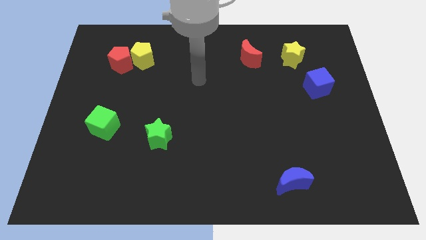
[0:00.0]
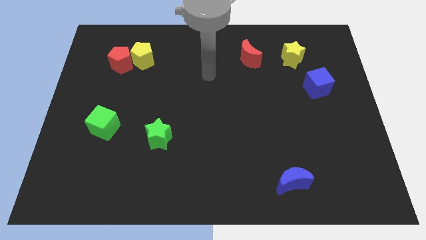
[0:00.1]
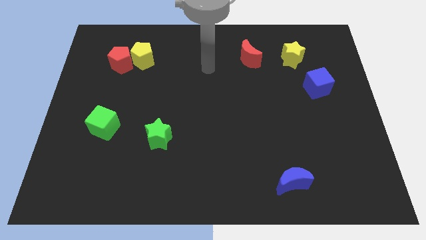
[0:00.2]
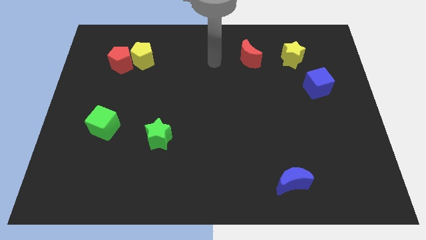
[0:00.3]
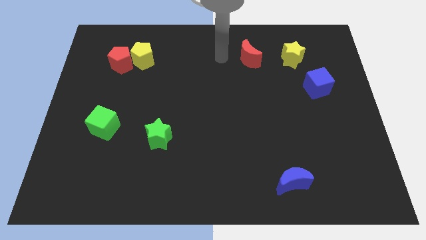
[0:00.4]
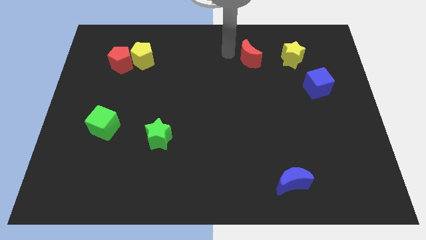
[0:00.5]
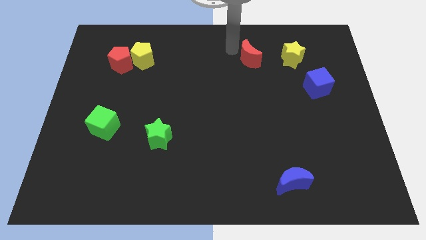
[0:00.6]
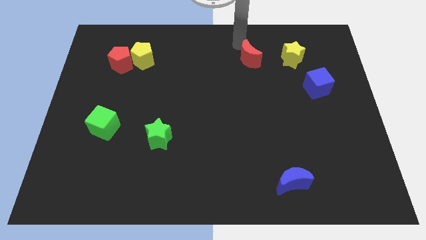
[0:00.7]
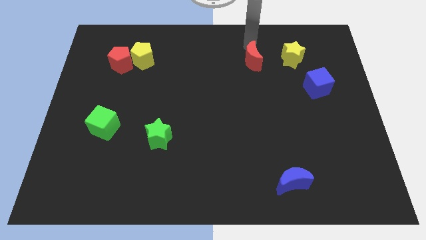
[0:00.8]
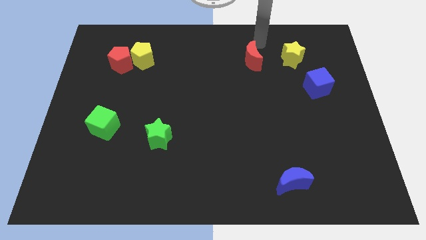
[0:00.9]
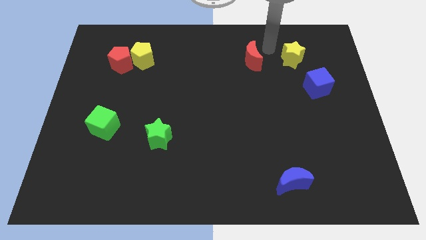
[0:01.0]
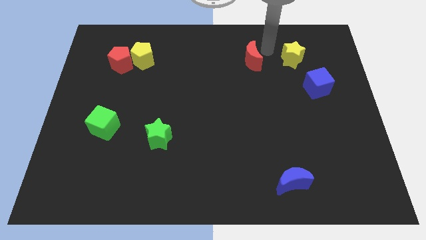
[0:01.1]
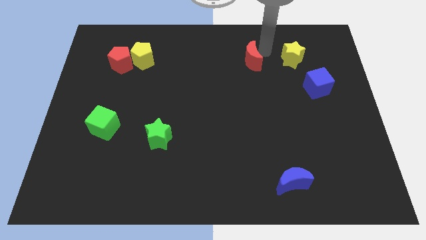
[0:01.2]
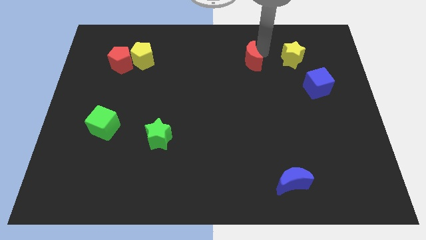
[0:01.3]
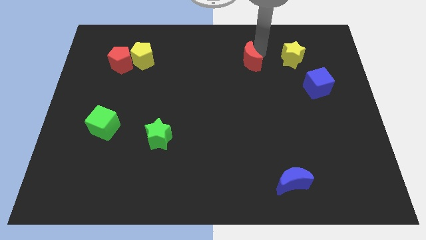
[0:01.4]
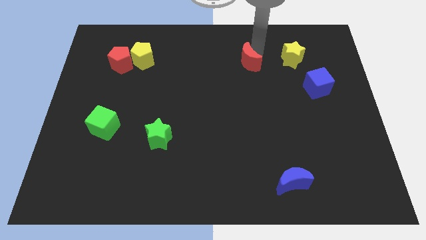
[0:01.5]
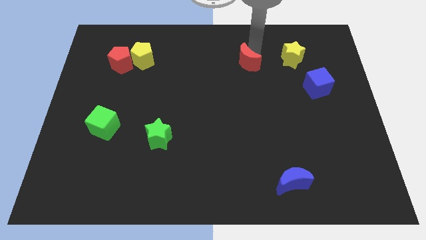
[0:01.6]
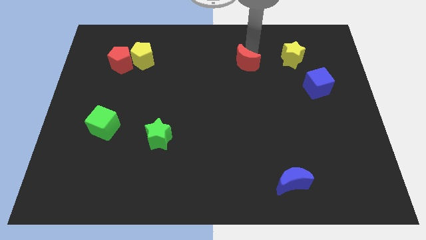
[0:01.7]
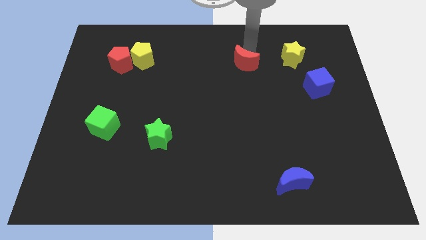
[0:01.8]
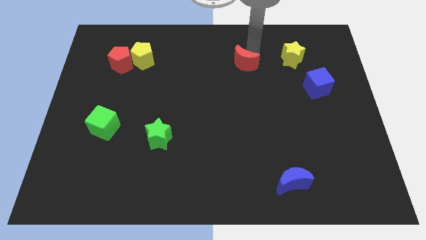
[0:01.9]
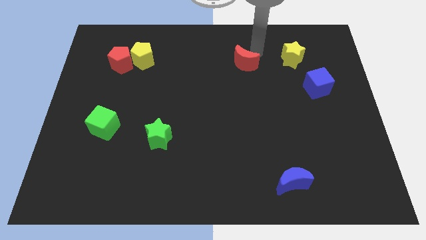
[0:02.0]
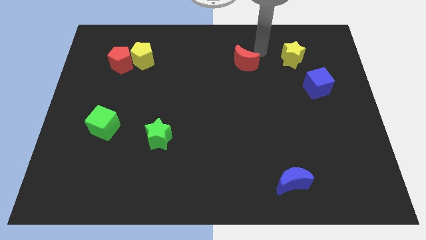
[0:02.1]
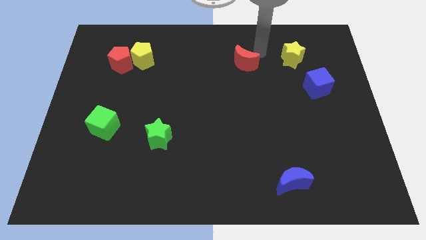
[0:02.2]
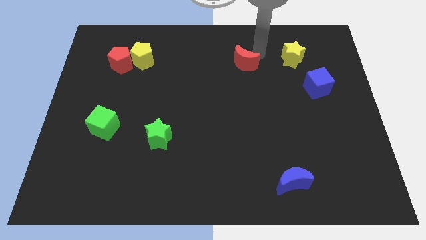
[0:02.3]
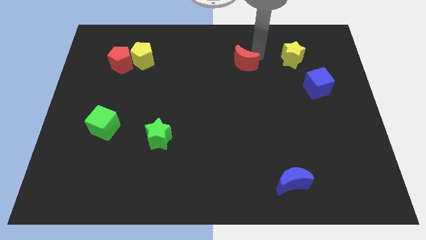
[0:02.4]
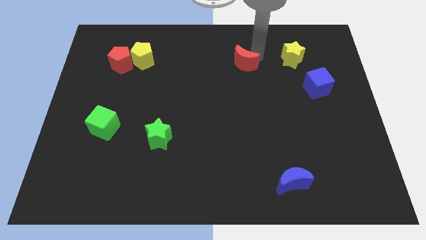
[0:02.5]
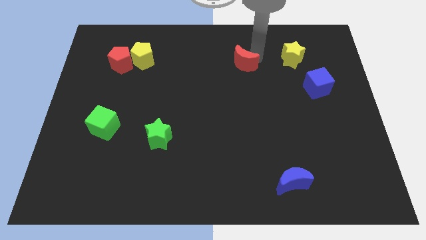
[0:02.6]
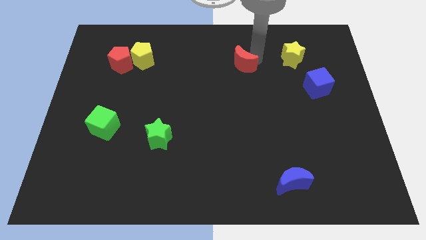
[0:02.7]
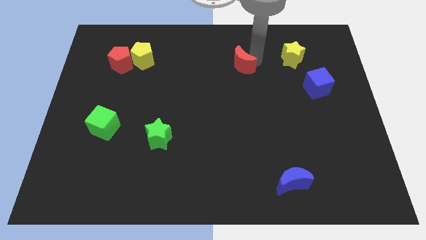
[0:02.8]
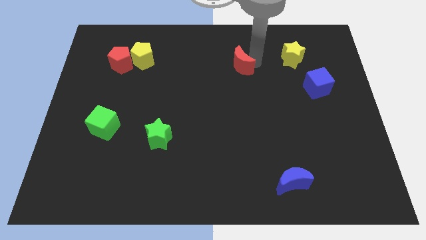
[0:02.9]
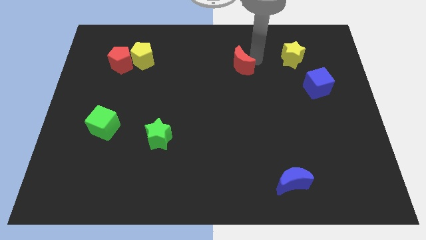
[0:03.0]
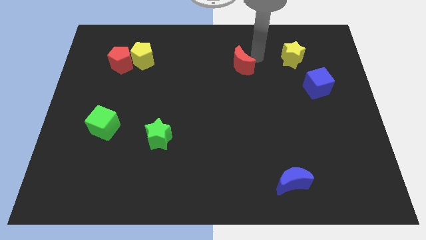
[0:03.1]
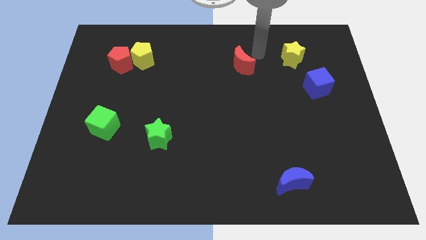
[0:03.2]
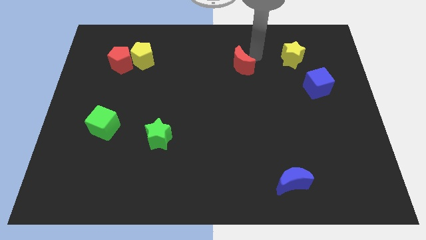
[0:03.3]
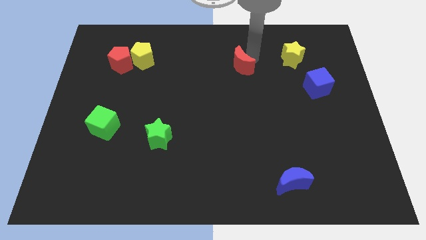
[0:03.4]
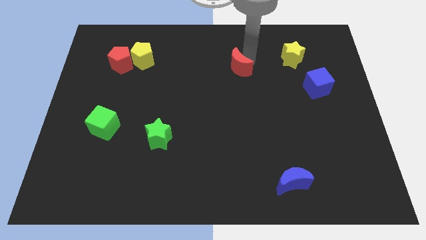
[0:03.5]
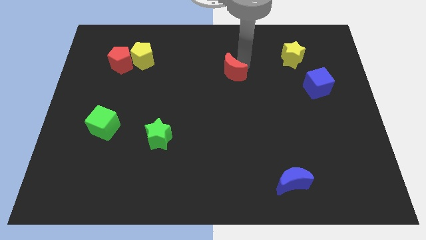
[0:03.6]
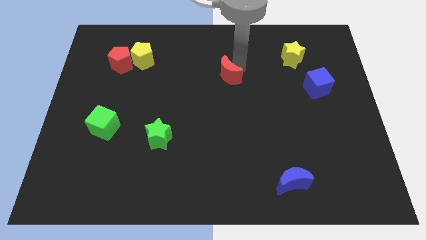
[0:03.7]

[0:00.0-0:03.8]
slightly move the red moon down and left diagonally

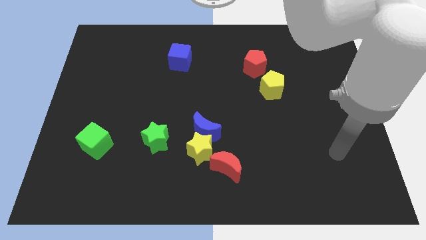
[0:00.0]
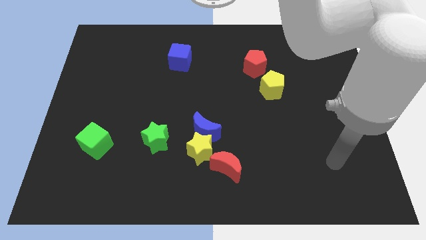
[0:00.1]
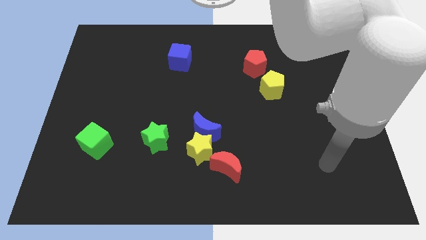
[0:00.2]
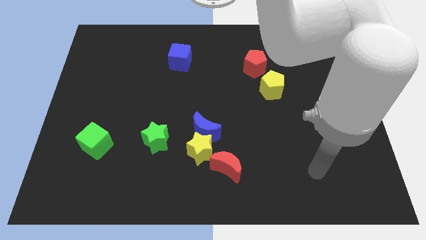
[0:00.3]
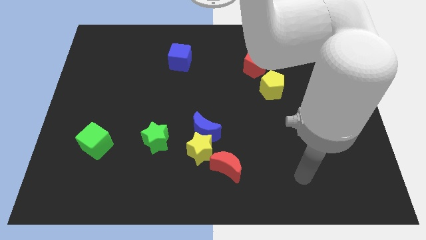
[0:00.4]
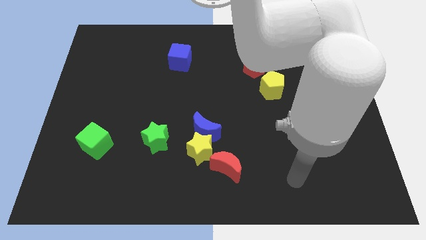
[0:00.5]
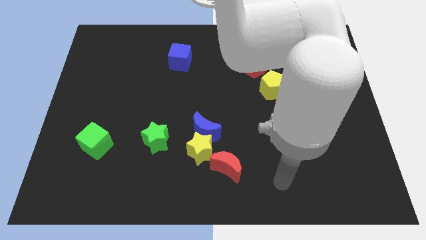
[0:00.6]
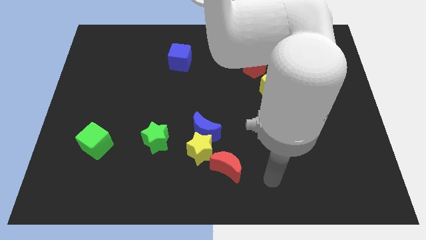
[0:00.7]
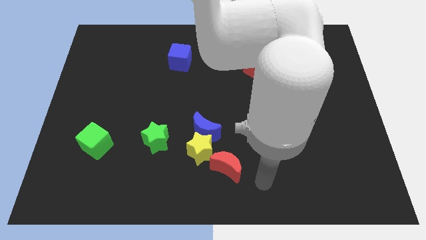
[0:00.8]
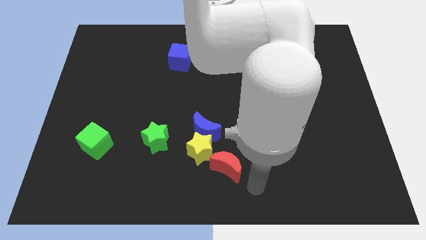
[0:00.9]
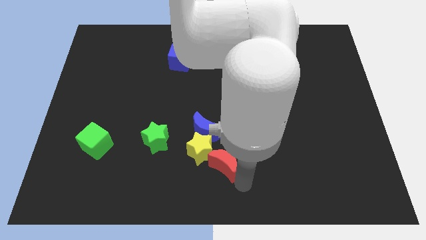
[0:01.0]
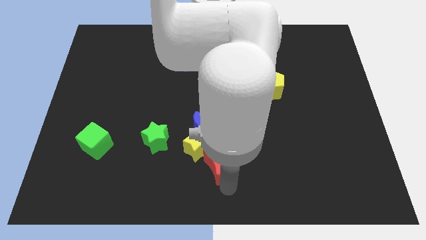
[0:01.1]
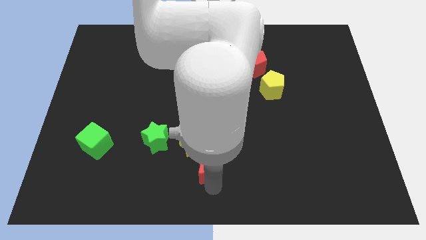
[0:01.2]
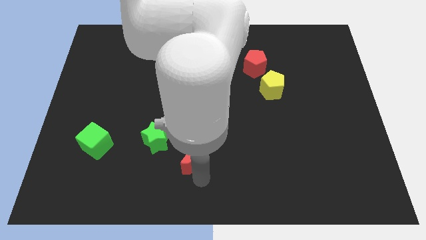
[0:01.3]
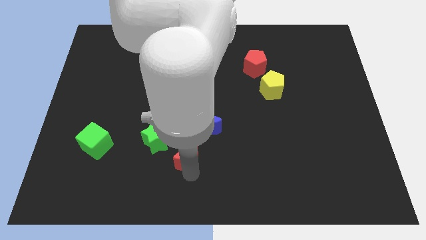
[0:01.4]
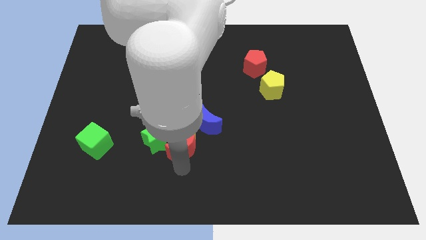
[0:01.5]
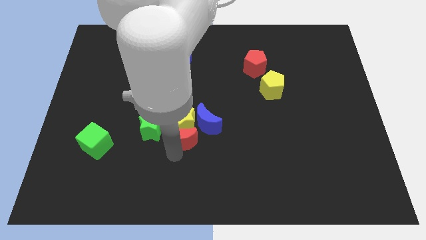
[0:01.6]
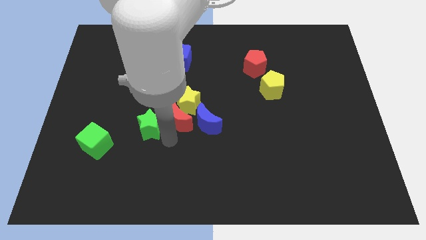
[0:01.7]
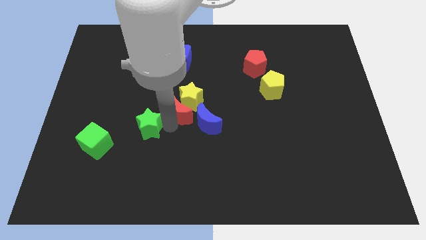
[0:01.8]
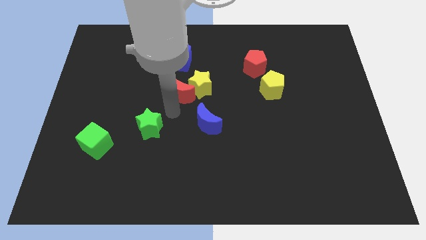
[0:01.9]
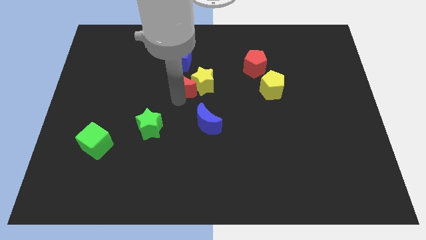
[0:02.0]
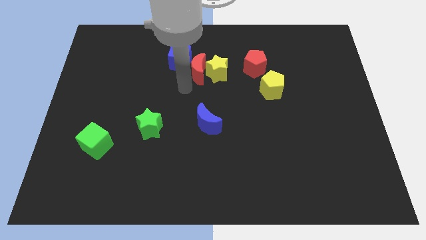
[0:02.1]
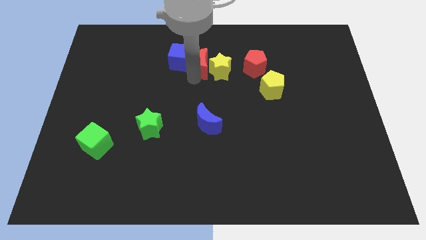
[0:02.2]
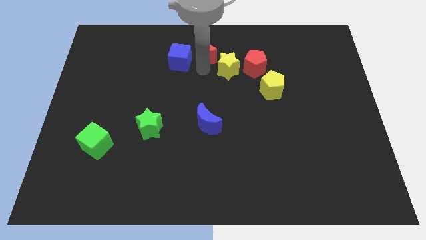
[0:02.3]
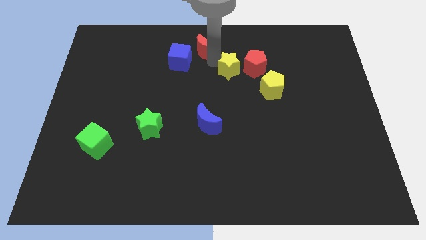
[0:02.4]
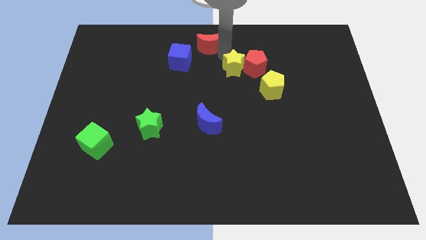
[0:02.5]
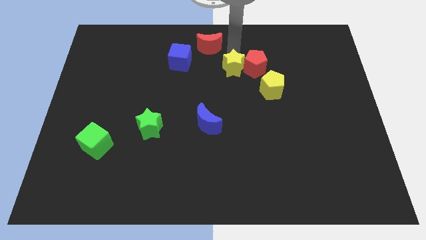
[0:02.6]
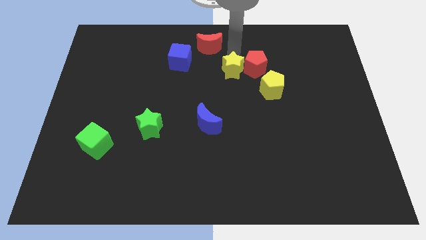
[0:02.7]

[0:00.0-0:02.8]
move the yellow star upwards and right diagonally a bit

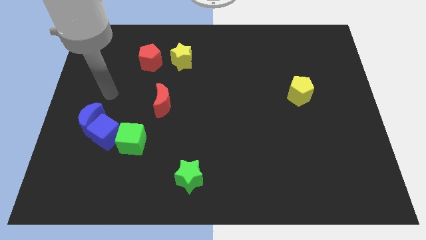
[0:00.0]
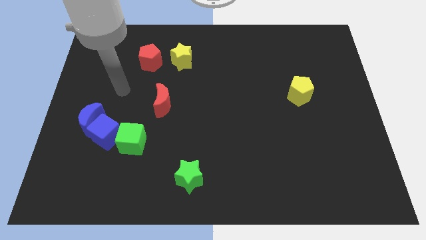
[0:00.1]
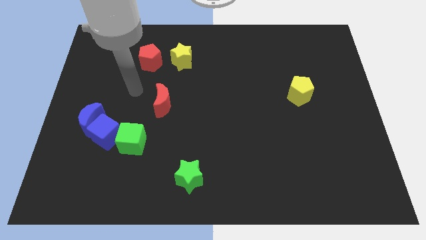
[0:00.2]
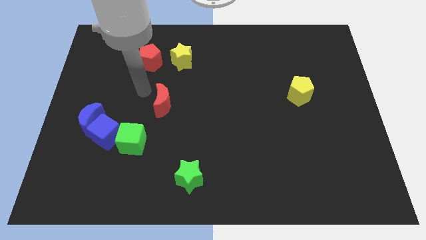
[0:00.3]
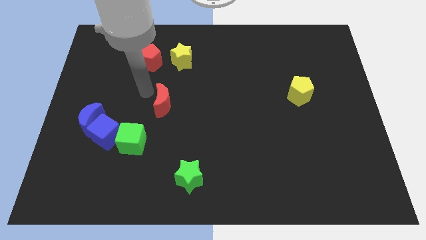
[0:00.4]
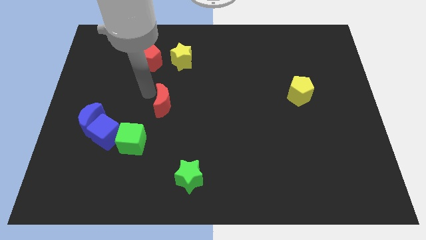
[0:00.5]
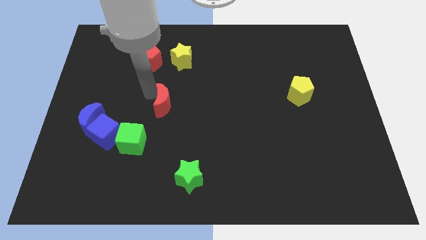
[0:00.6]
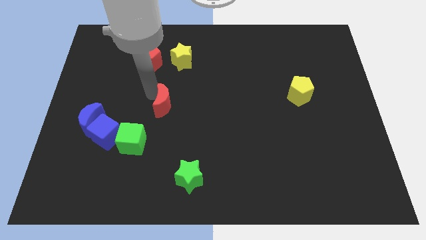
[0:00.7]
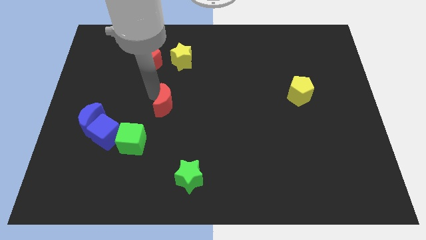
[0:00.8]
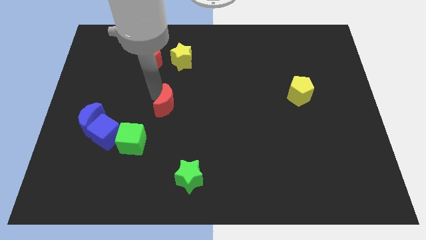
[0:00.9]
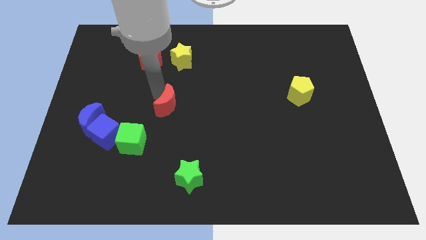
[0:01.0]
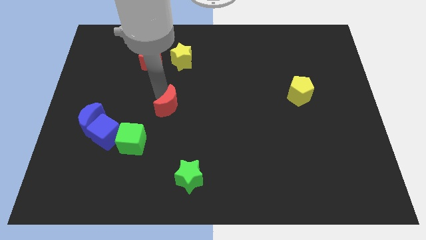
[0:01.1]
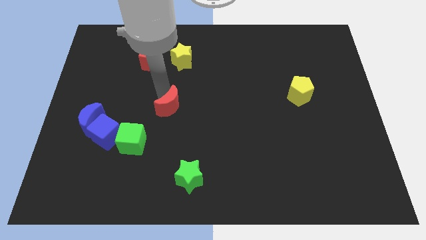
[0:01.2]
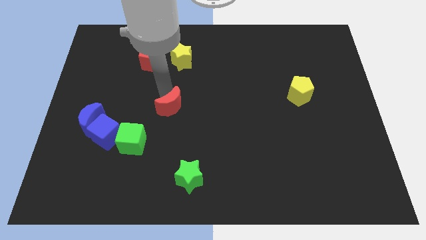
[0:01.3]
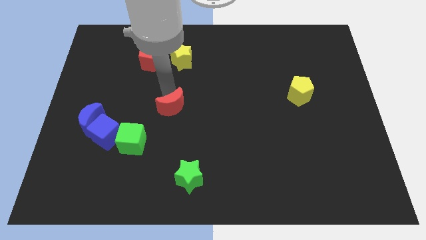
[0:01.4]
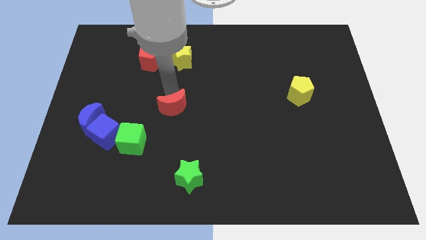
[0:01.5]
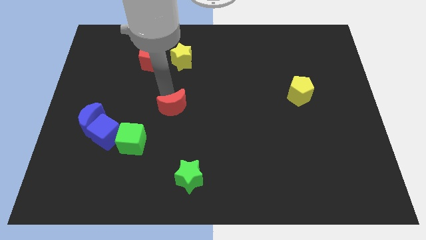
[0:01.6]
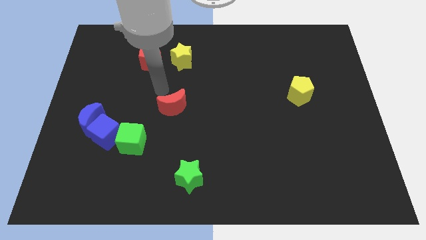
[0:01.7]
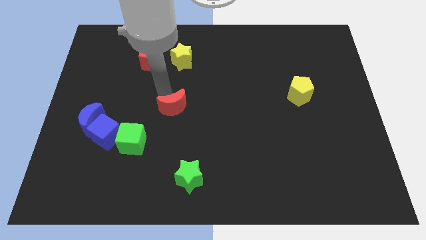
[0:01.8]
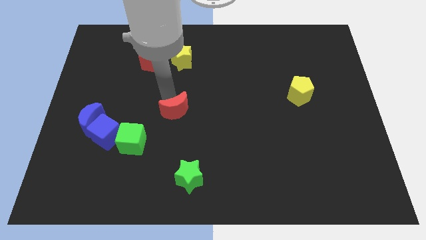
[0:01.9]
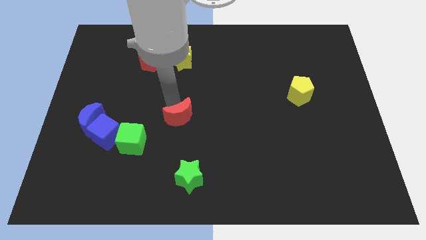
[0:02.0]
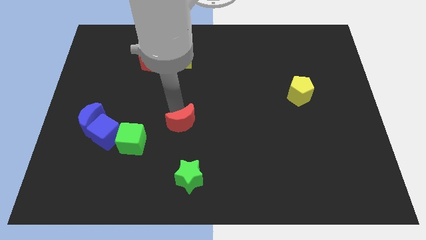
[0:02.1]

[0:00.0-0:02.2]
move the red moon slightly down and right
